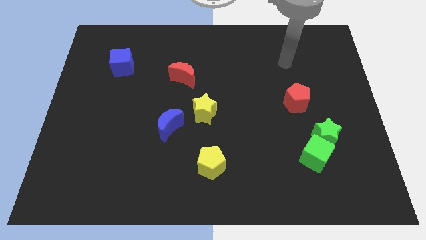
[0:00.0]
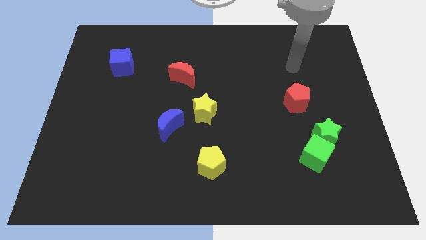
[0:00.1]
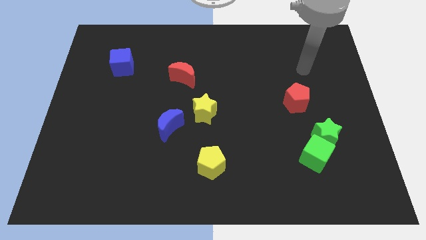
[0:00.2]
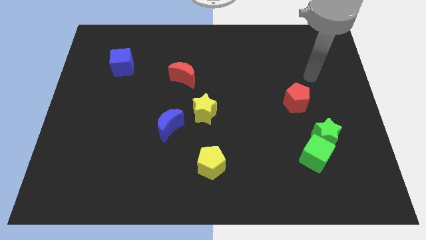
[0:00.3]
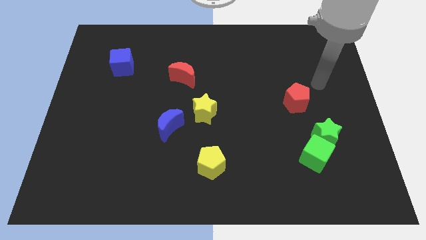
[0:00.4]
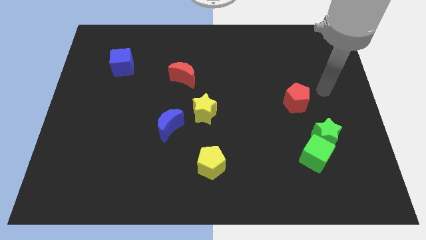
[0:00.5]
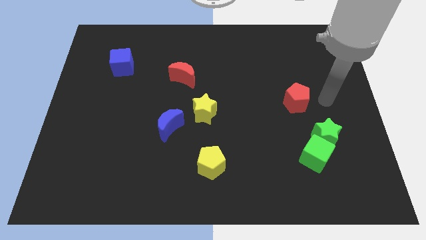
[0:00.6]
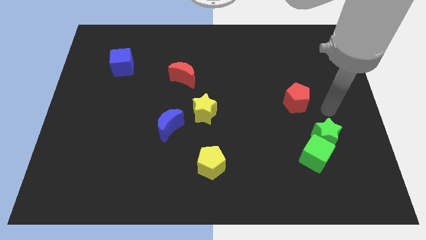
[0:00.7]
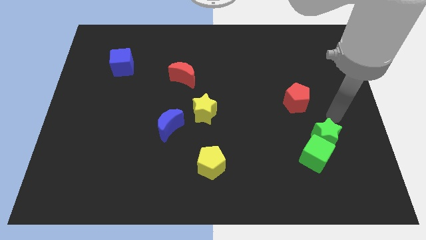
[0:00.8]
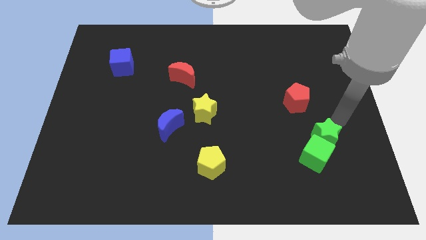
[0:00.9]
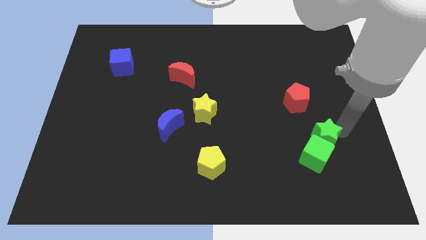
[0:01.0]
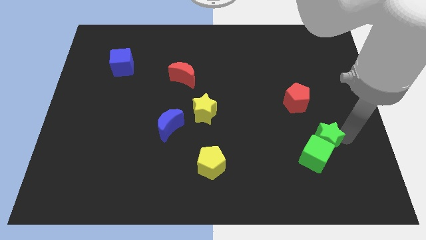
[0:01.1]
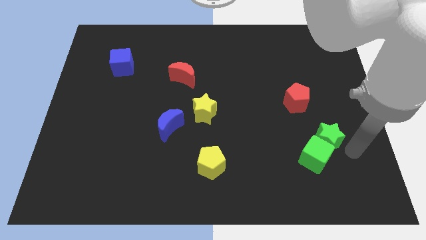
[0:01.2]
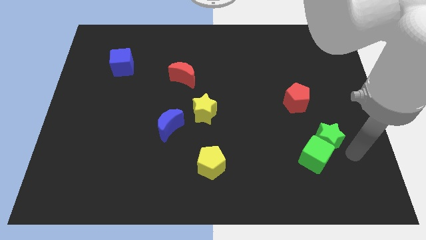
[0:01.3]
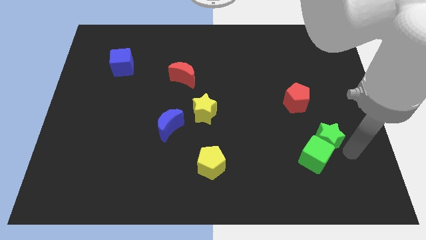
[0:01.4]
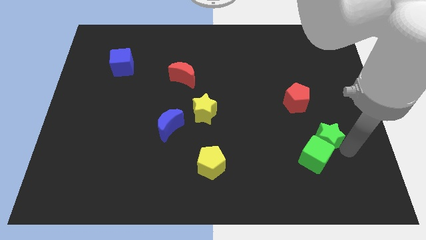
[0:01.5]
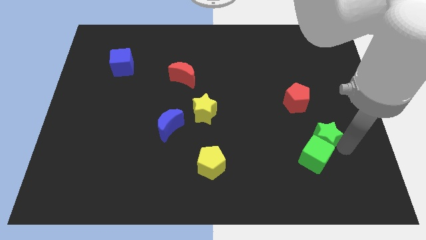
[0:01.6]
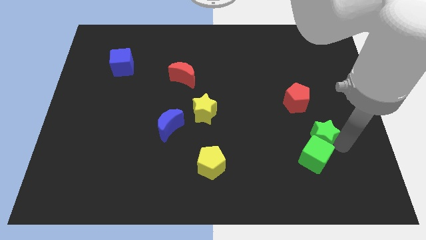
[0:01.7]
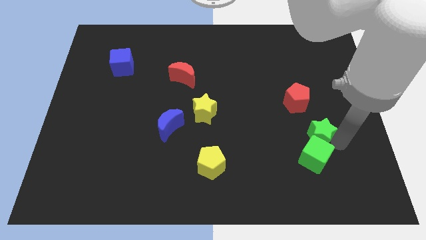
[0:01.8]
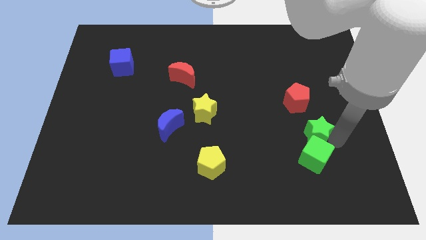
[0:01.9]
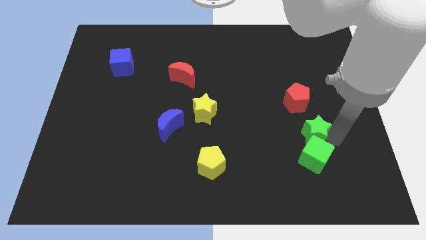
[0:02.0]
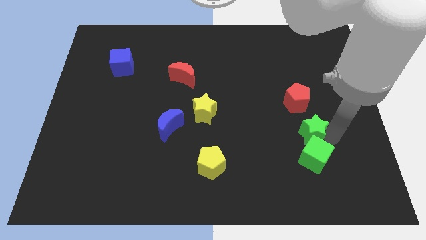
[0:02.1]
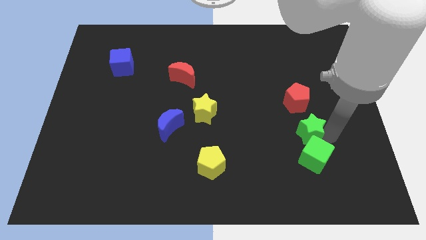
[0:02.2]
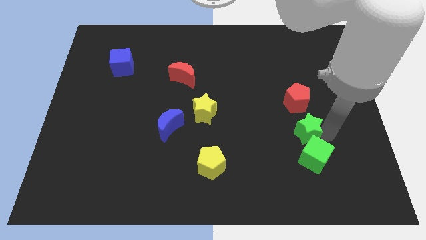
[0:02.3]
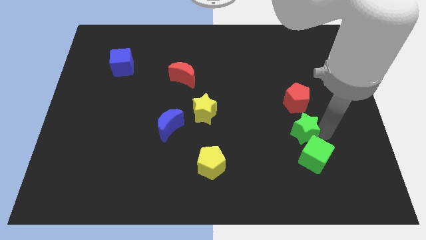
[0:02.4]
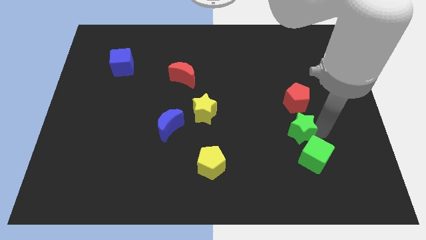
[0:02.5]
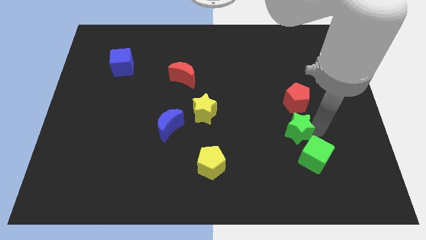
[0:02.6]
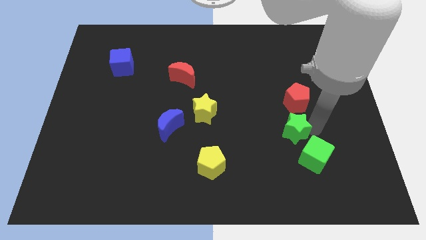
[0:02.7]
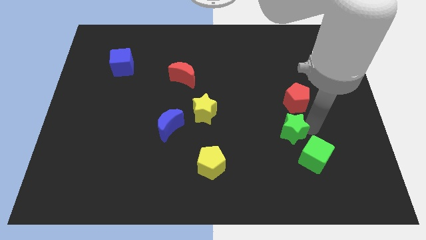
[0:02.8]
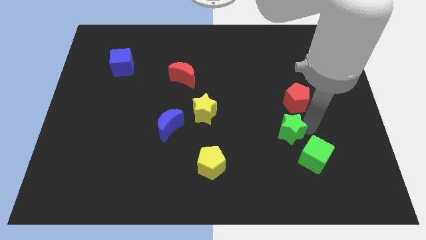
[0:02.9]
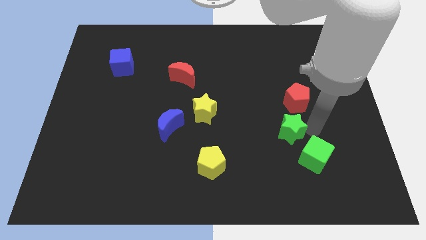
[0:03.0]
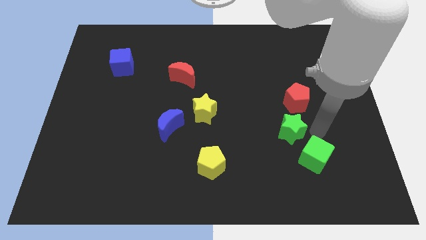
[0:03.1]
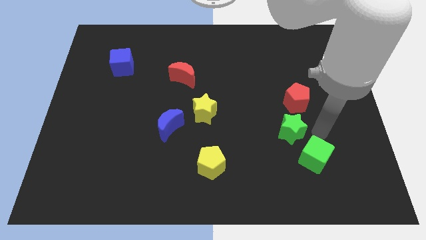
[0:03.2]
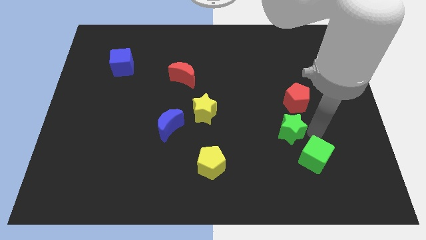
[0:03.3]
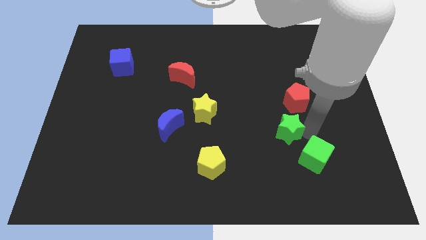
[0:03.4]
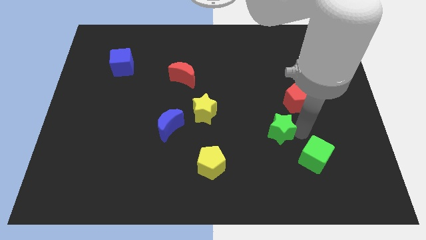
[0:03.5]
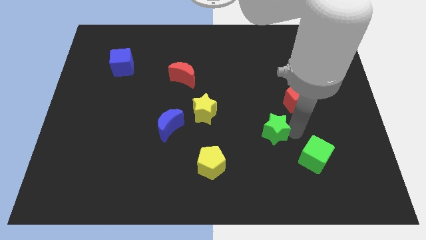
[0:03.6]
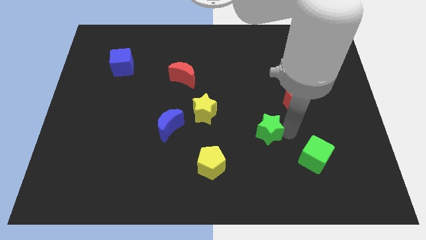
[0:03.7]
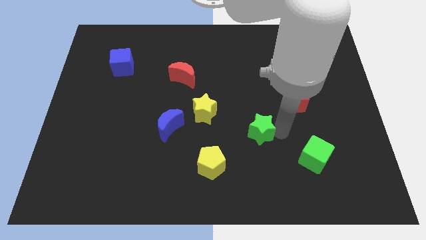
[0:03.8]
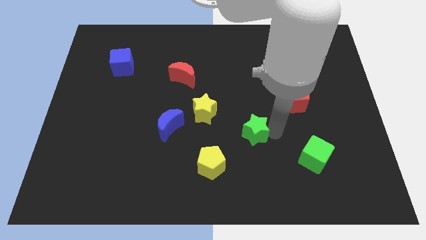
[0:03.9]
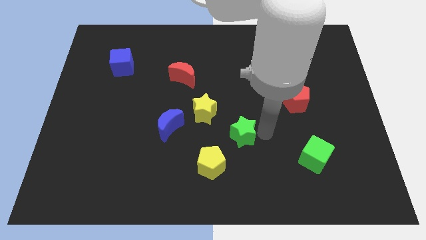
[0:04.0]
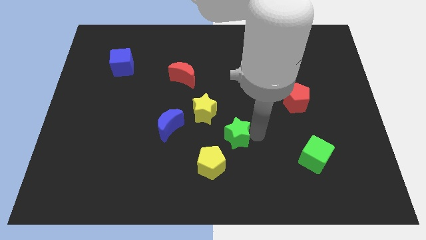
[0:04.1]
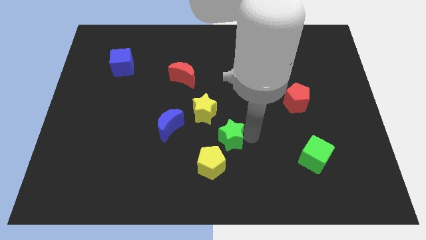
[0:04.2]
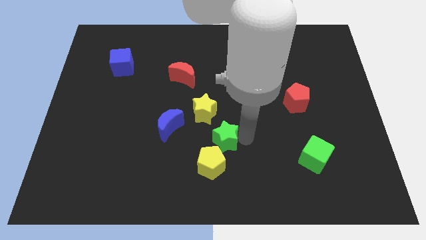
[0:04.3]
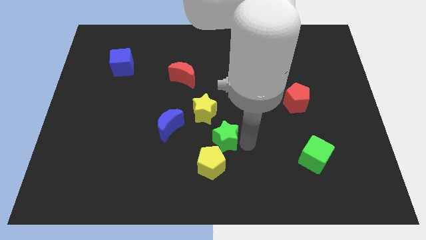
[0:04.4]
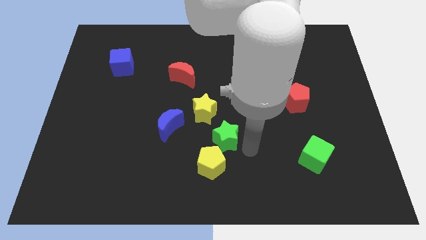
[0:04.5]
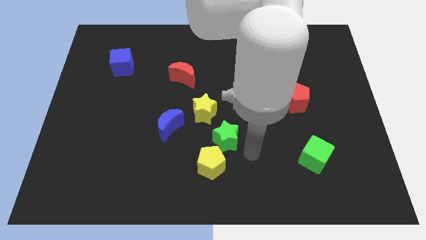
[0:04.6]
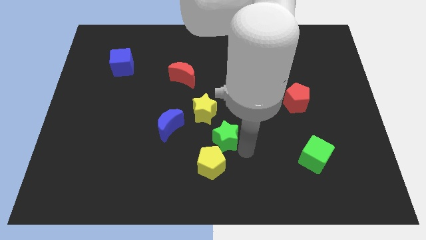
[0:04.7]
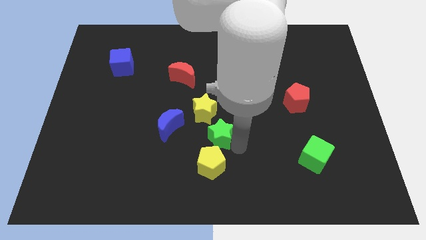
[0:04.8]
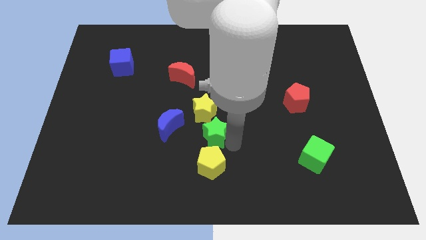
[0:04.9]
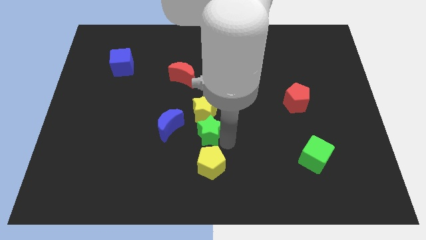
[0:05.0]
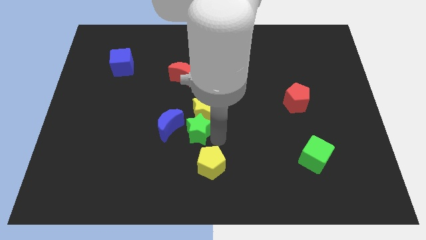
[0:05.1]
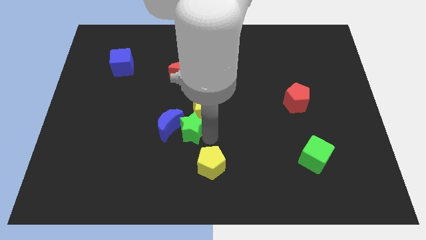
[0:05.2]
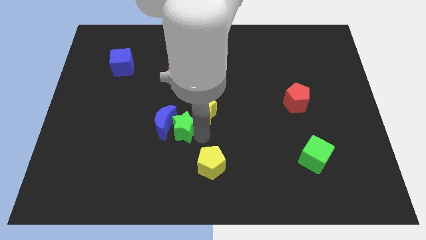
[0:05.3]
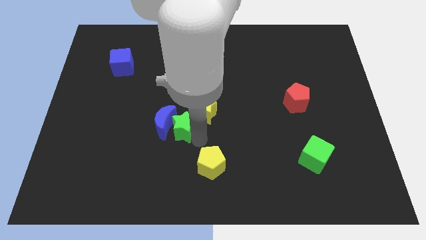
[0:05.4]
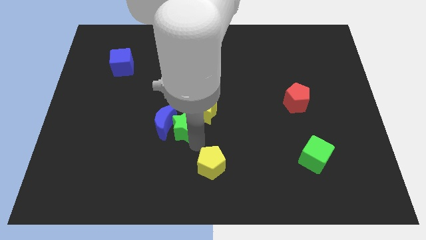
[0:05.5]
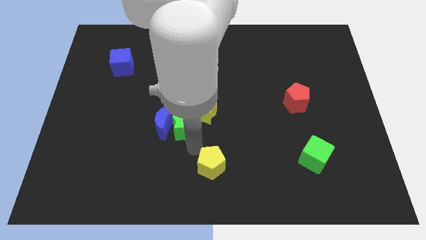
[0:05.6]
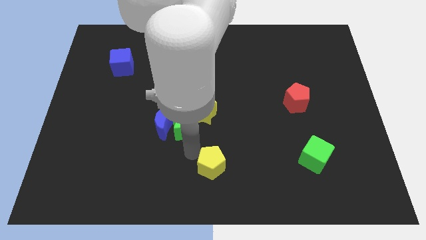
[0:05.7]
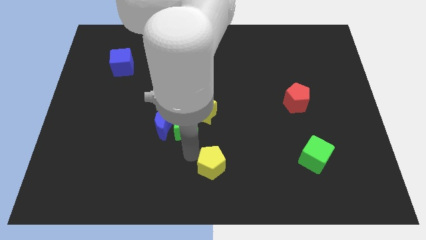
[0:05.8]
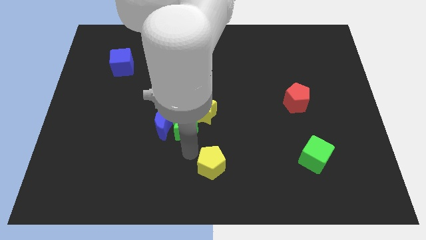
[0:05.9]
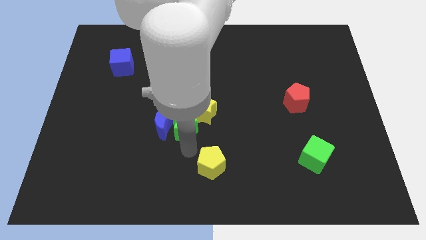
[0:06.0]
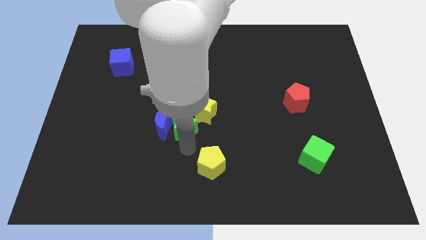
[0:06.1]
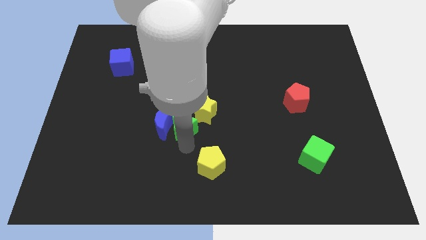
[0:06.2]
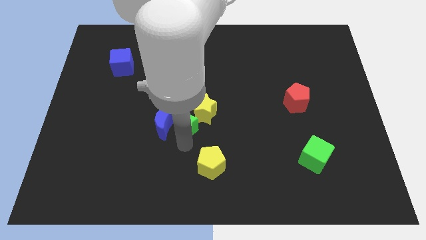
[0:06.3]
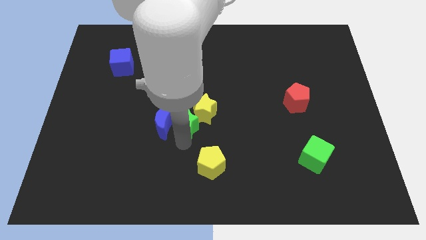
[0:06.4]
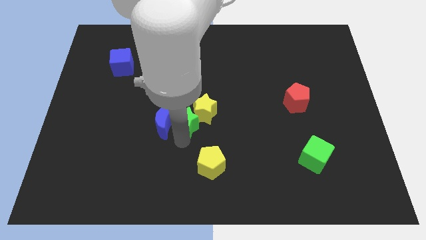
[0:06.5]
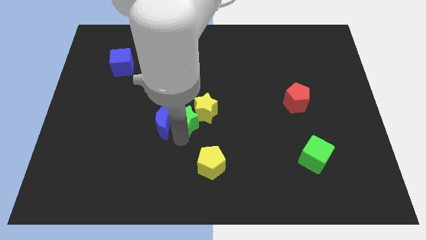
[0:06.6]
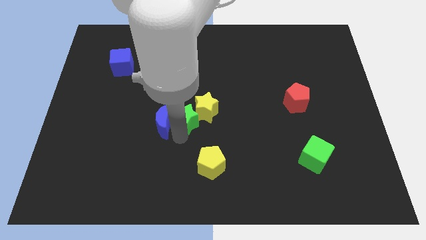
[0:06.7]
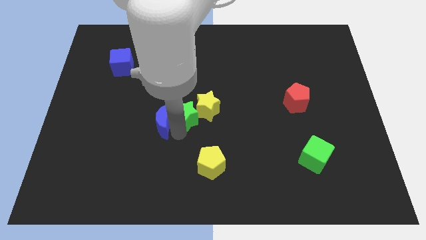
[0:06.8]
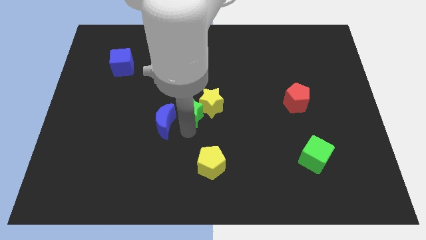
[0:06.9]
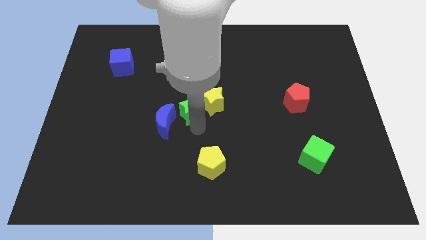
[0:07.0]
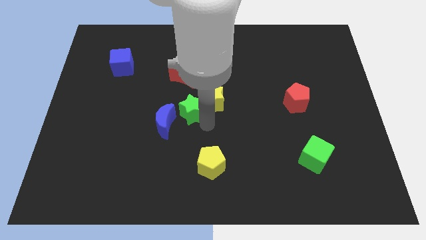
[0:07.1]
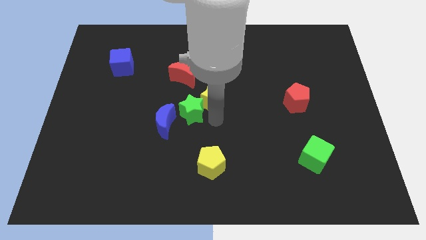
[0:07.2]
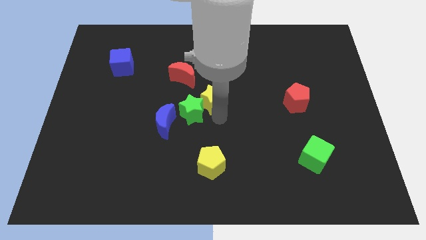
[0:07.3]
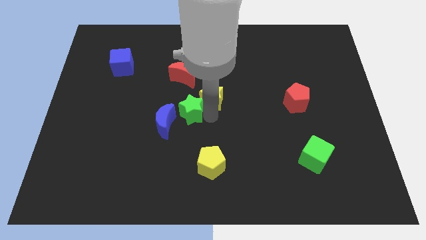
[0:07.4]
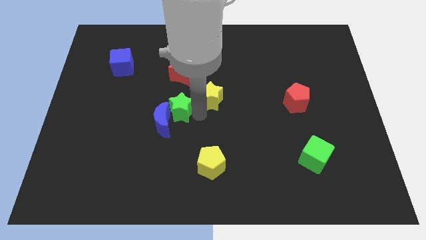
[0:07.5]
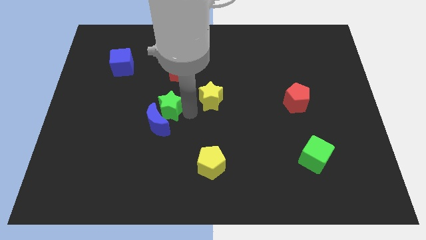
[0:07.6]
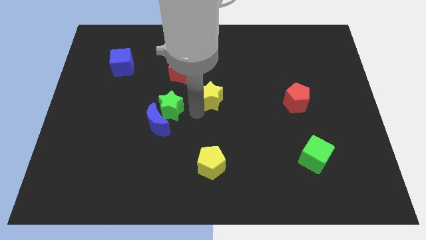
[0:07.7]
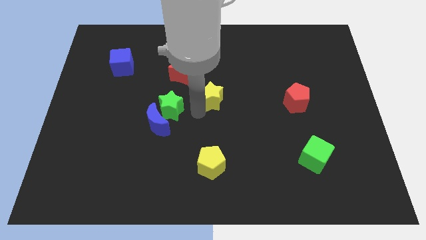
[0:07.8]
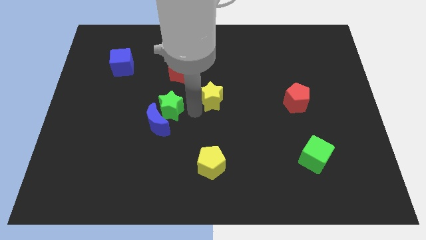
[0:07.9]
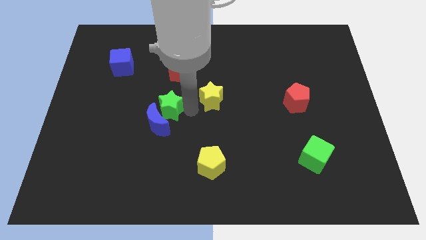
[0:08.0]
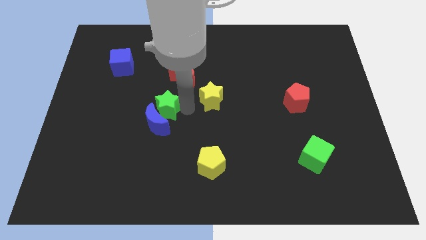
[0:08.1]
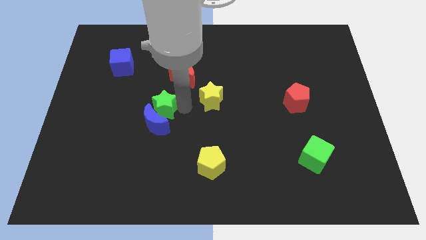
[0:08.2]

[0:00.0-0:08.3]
push the green star to the top left side of the blue moon
